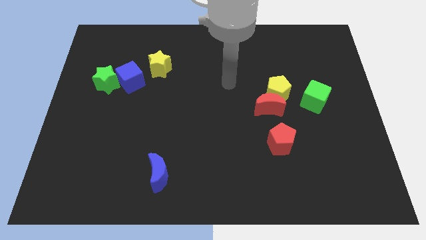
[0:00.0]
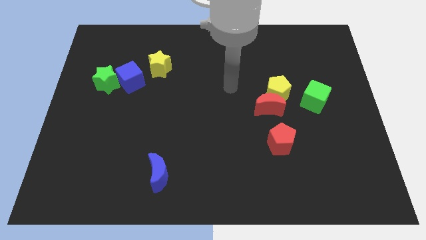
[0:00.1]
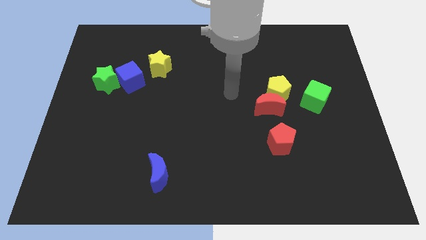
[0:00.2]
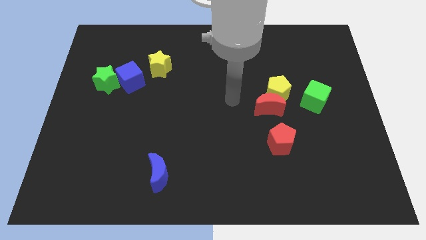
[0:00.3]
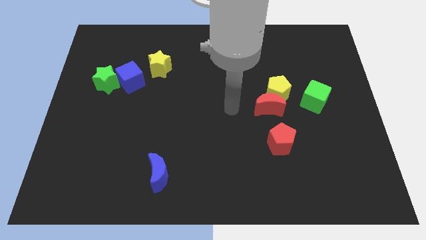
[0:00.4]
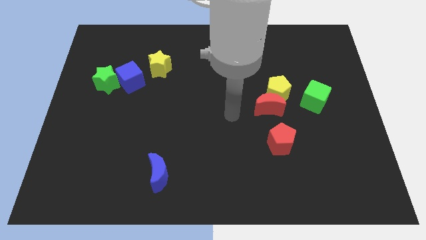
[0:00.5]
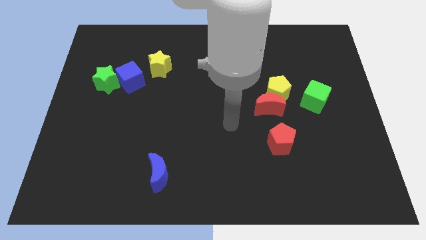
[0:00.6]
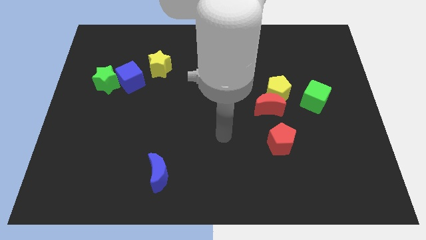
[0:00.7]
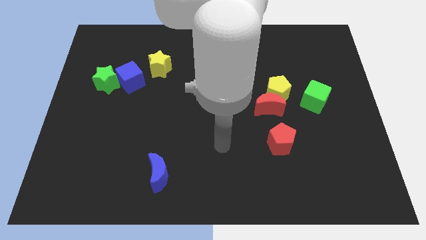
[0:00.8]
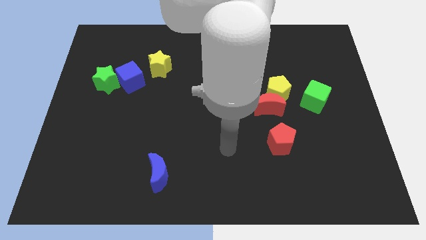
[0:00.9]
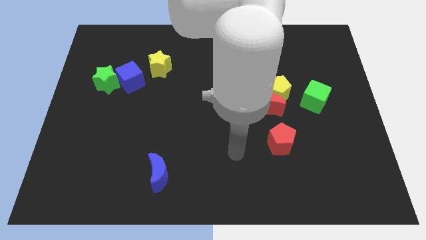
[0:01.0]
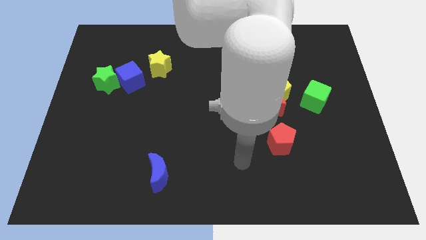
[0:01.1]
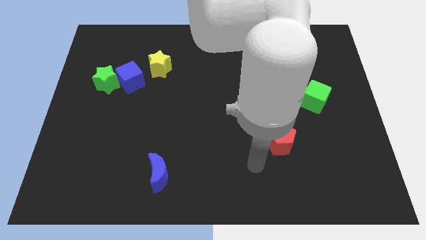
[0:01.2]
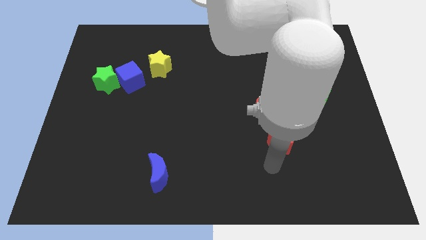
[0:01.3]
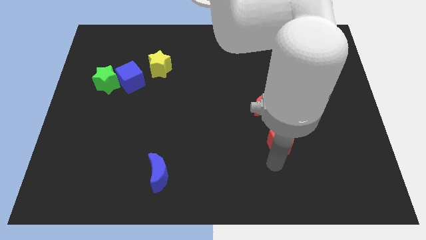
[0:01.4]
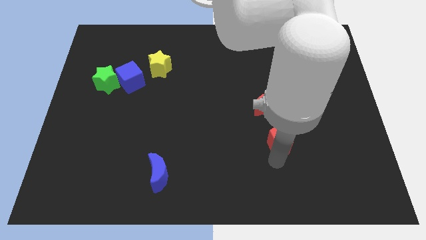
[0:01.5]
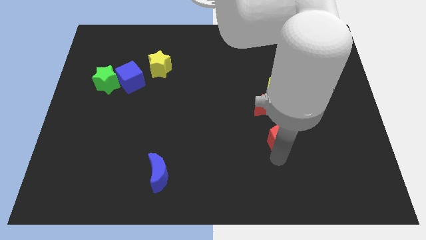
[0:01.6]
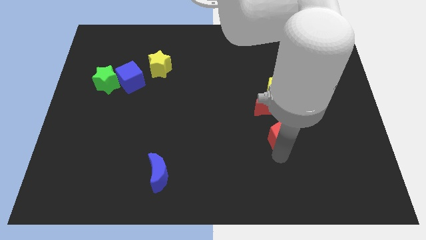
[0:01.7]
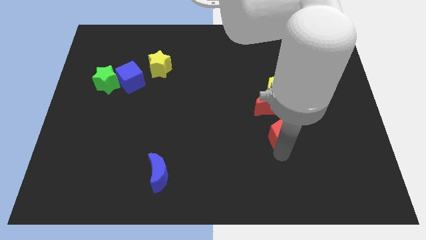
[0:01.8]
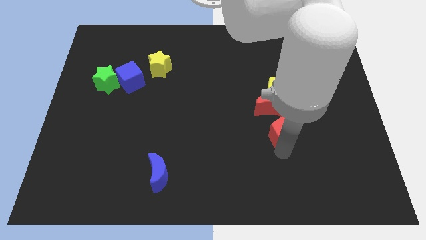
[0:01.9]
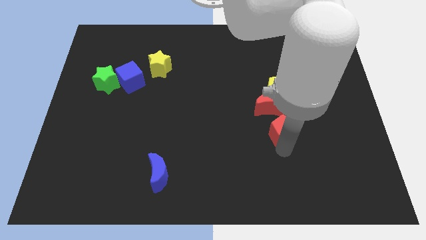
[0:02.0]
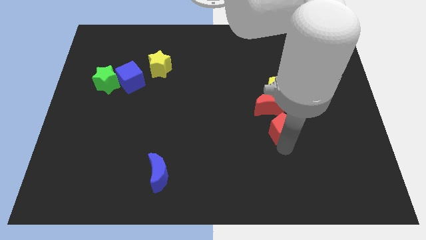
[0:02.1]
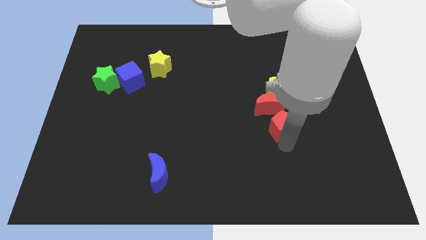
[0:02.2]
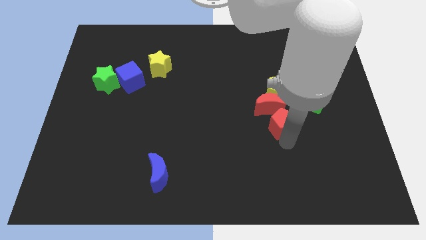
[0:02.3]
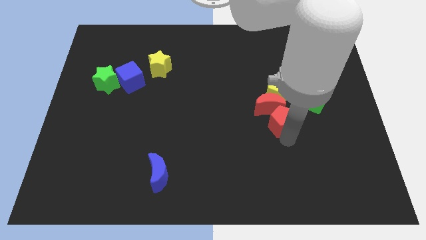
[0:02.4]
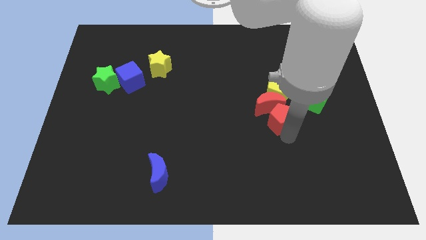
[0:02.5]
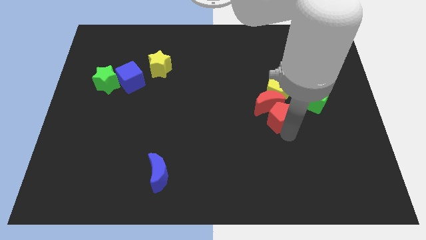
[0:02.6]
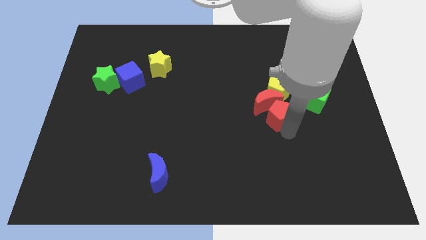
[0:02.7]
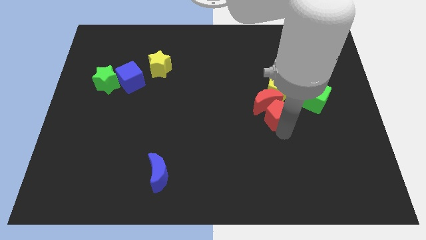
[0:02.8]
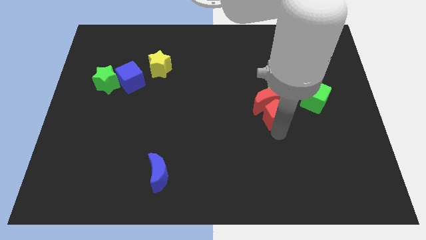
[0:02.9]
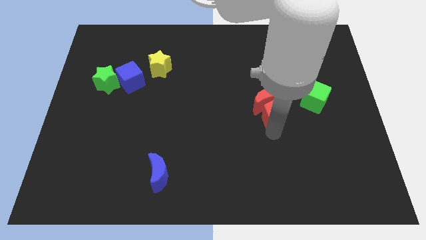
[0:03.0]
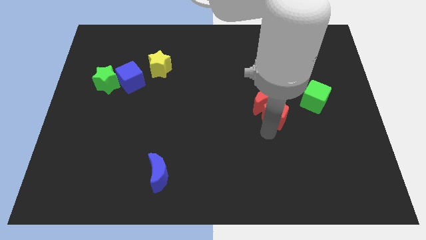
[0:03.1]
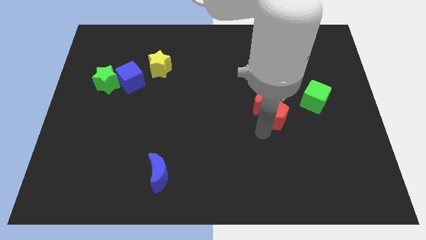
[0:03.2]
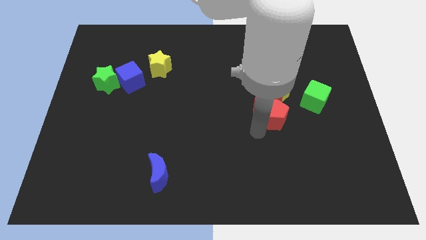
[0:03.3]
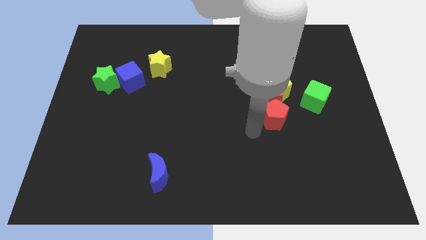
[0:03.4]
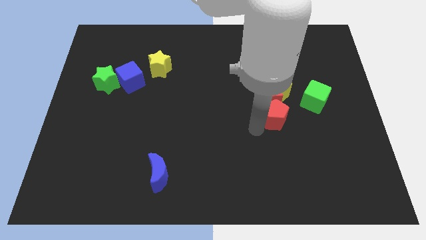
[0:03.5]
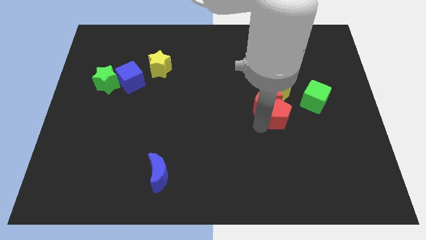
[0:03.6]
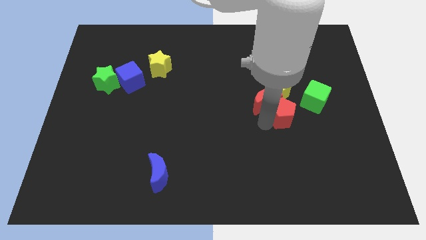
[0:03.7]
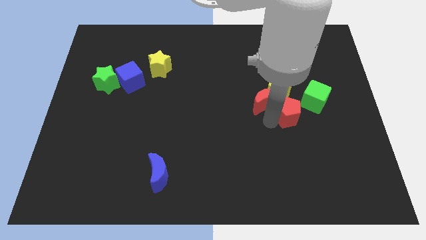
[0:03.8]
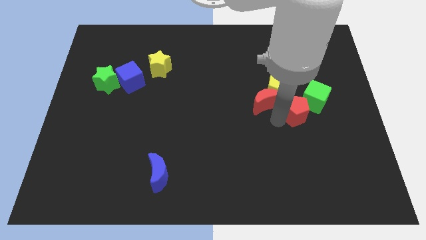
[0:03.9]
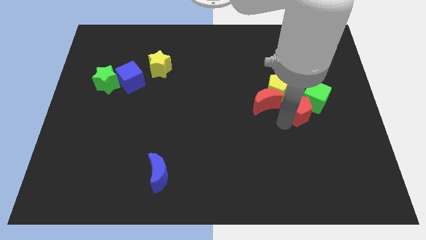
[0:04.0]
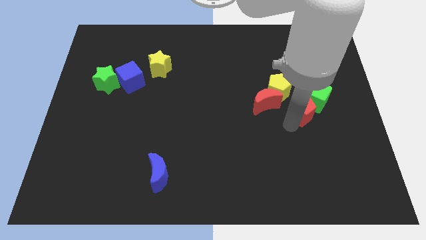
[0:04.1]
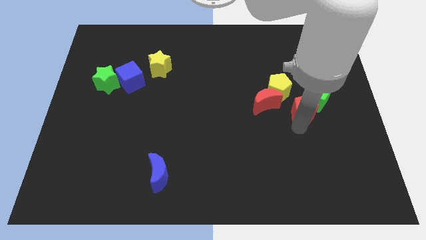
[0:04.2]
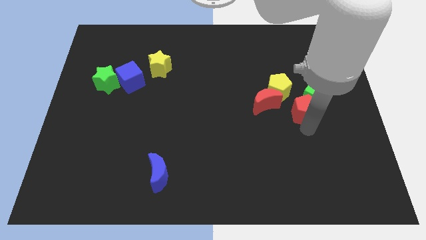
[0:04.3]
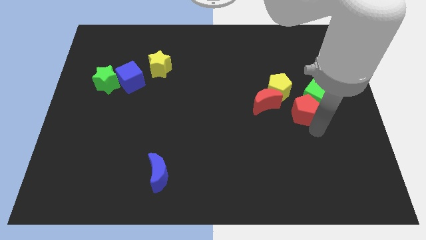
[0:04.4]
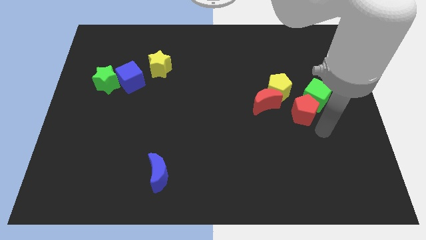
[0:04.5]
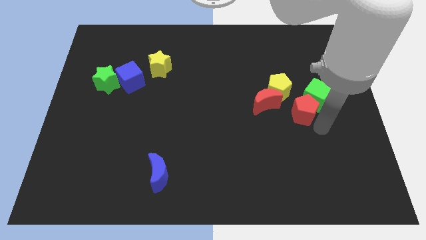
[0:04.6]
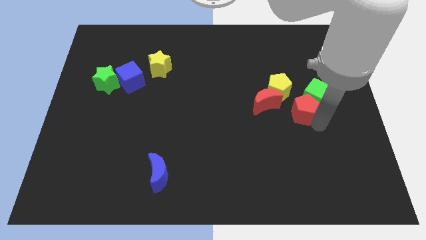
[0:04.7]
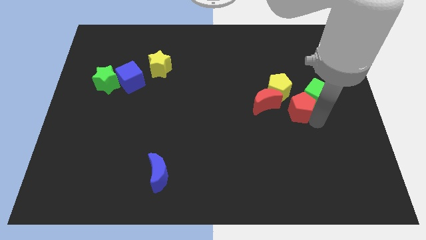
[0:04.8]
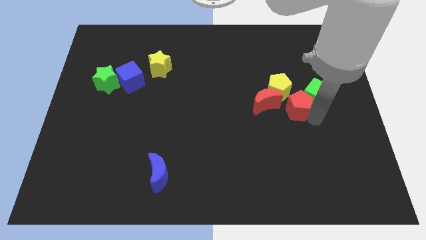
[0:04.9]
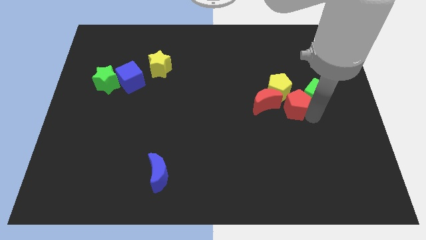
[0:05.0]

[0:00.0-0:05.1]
move the red pentagon close to the yellow pentagon

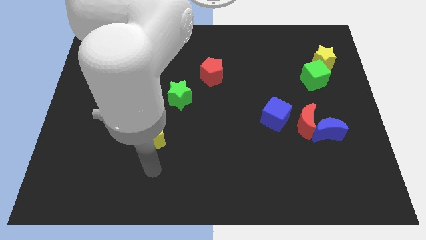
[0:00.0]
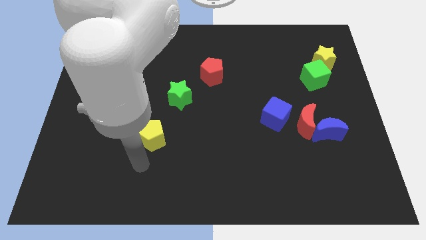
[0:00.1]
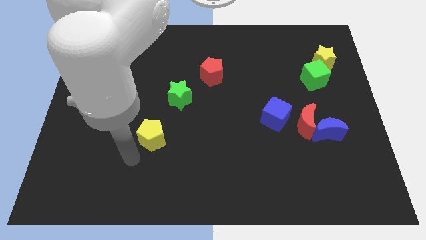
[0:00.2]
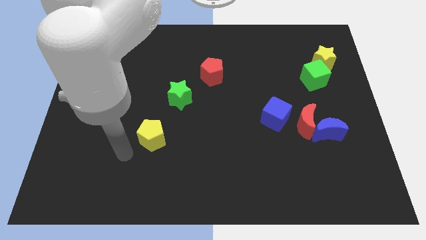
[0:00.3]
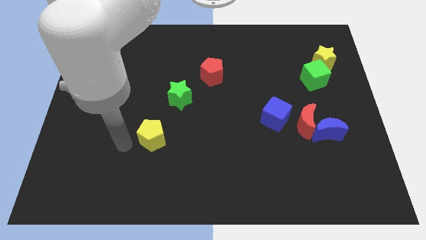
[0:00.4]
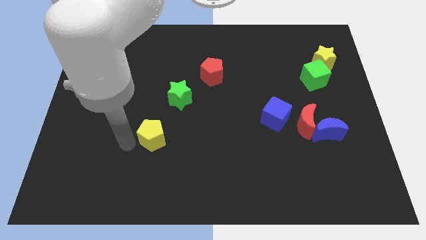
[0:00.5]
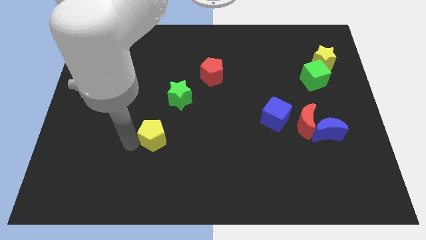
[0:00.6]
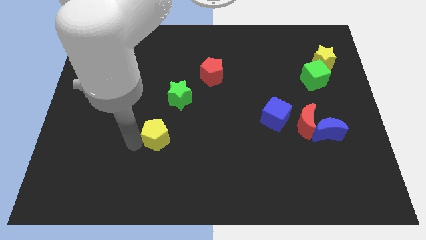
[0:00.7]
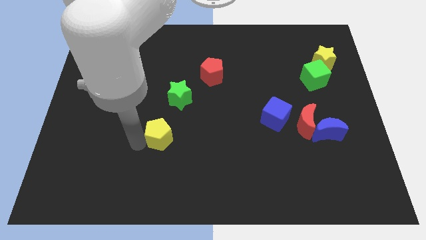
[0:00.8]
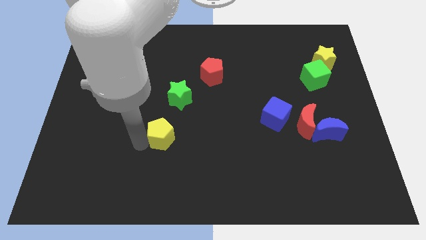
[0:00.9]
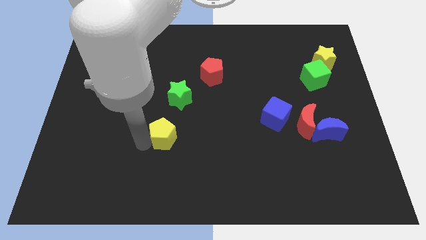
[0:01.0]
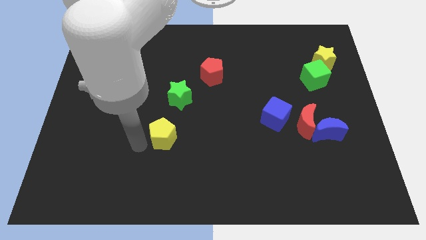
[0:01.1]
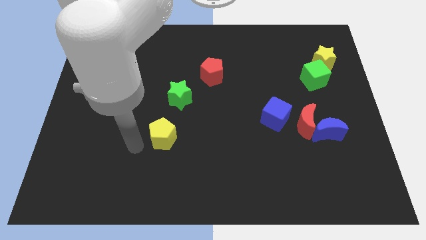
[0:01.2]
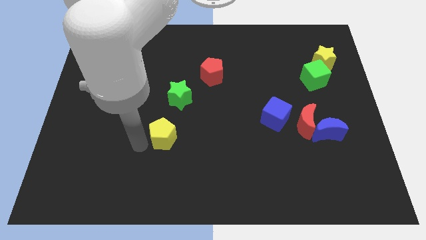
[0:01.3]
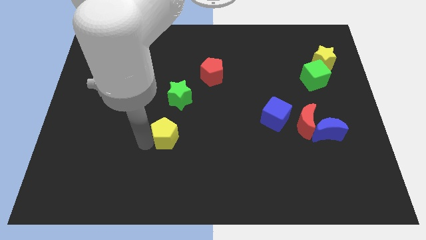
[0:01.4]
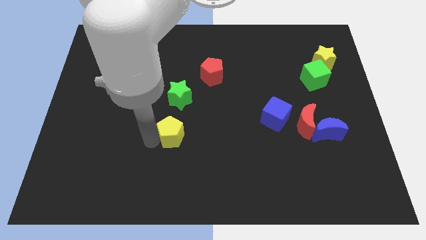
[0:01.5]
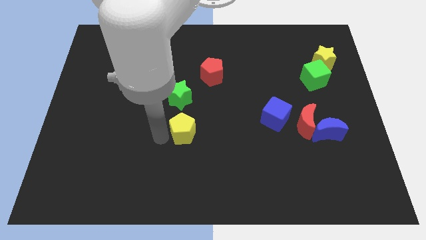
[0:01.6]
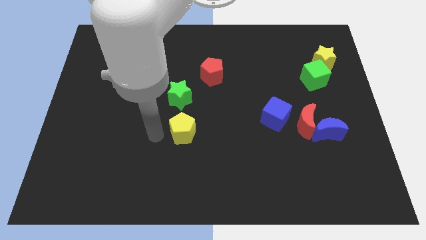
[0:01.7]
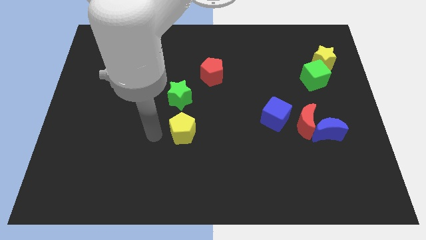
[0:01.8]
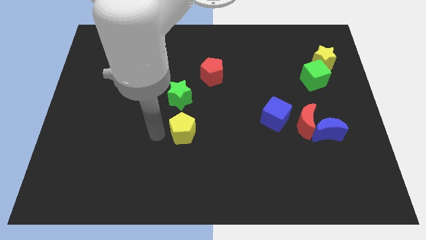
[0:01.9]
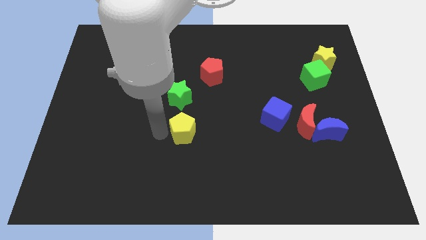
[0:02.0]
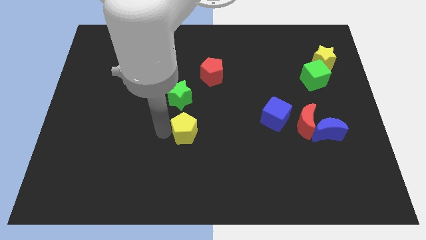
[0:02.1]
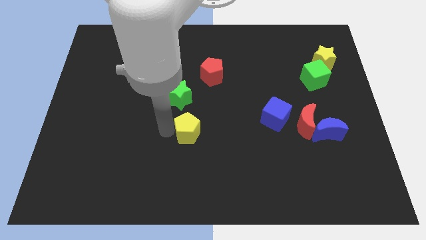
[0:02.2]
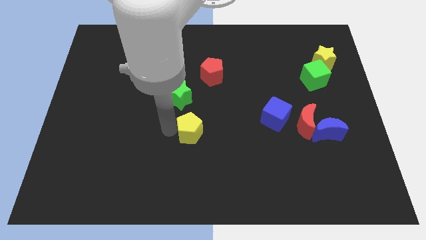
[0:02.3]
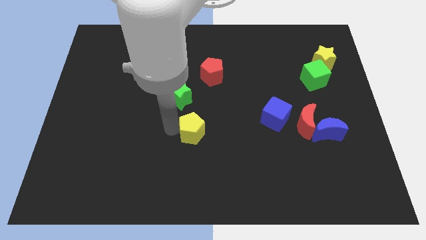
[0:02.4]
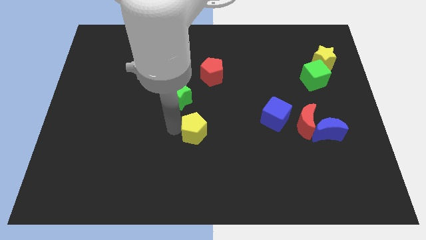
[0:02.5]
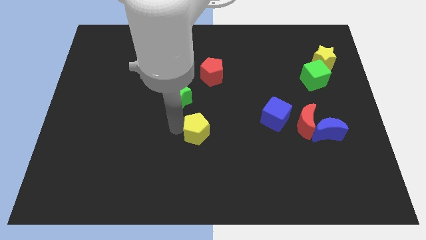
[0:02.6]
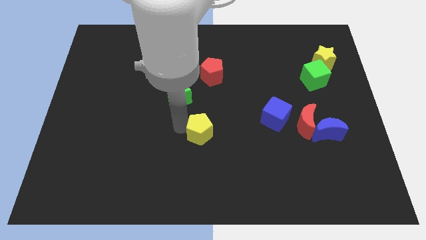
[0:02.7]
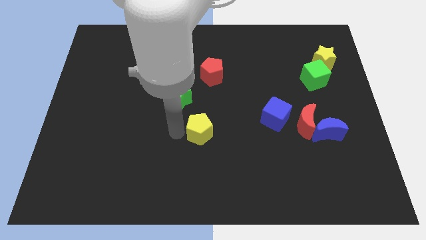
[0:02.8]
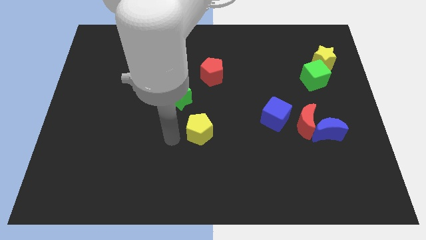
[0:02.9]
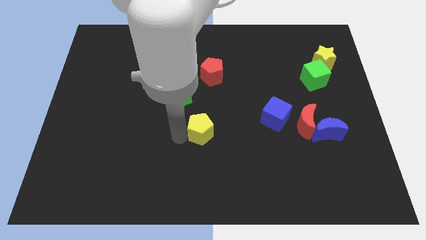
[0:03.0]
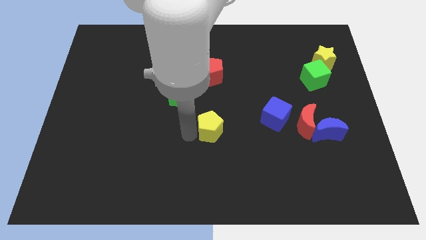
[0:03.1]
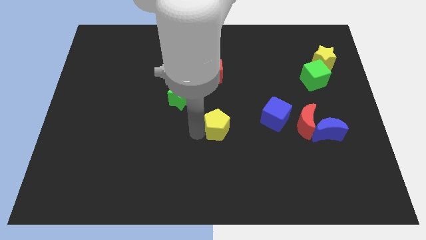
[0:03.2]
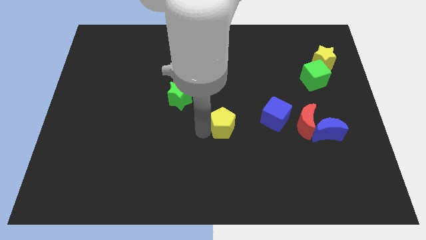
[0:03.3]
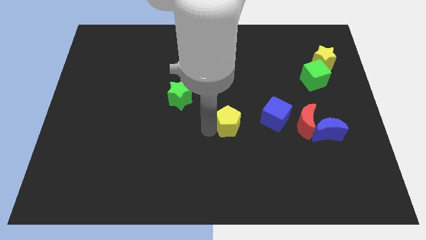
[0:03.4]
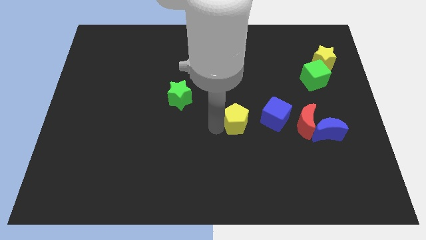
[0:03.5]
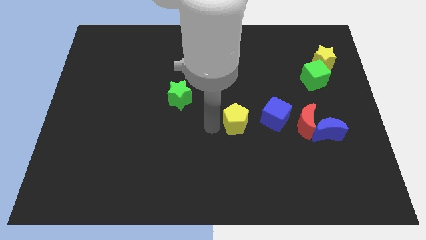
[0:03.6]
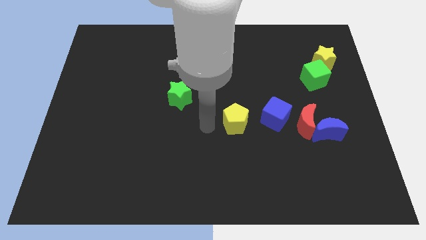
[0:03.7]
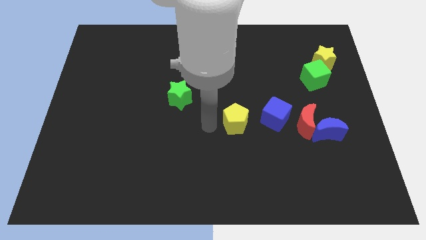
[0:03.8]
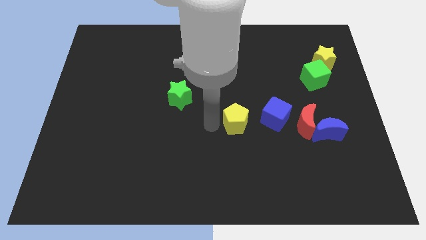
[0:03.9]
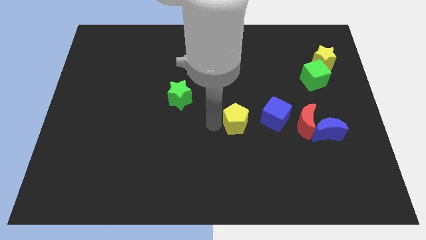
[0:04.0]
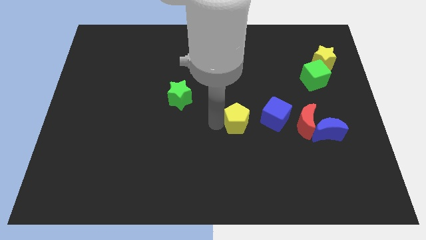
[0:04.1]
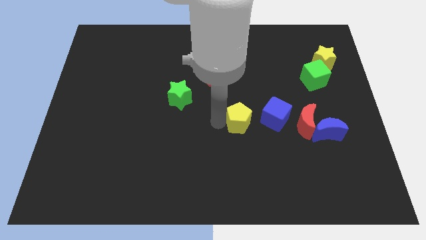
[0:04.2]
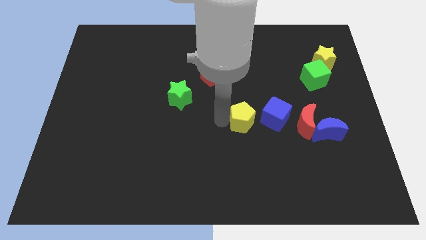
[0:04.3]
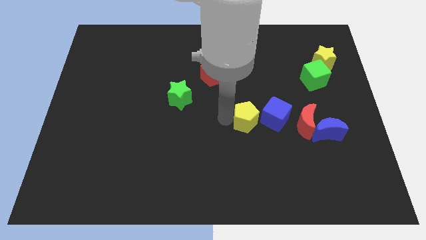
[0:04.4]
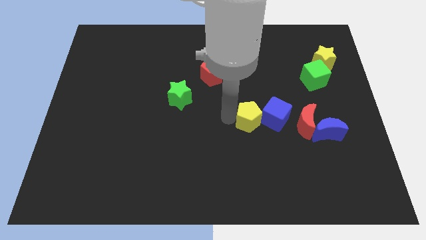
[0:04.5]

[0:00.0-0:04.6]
slide the yellow pentagon towards the blue cube
